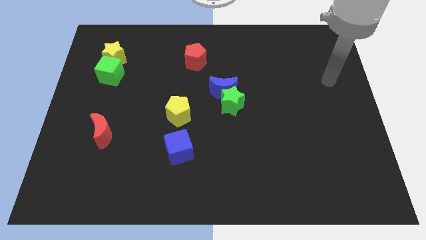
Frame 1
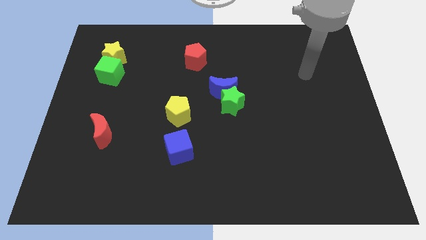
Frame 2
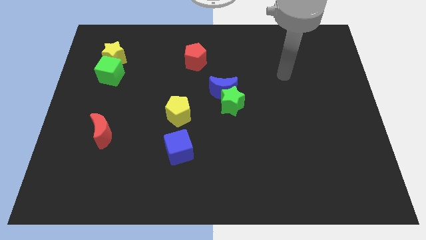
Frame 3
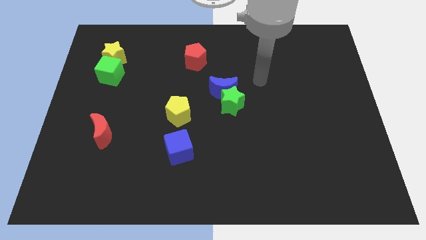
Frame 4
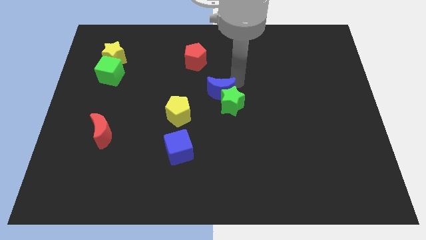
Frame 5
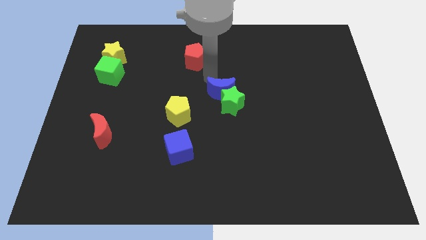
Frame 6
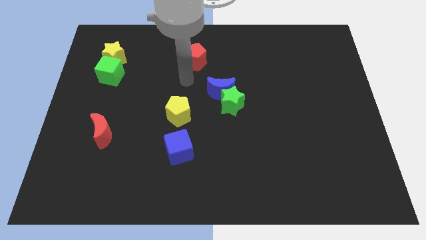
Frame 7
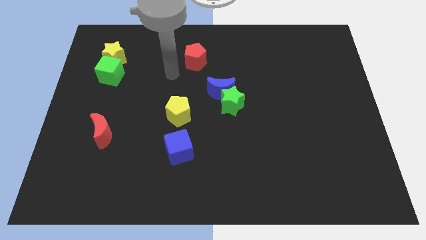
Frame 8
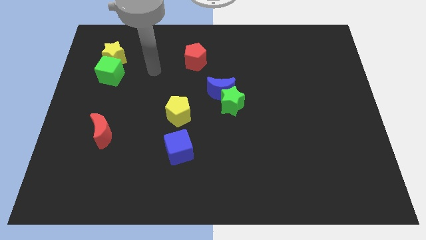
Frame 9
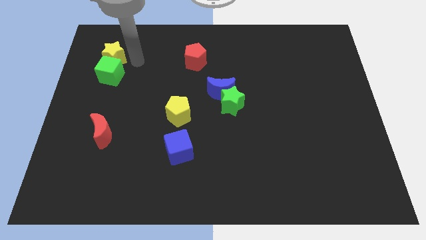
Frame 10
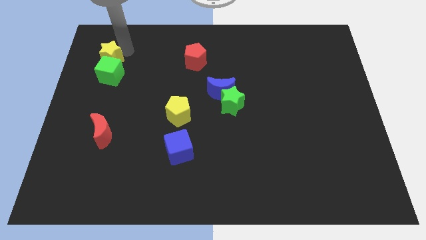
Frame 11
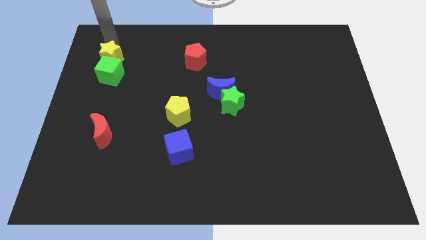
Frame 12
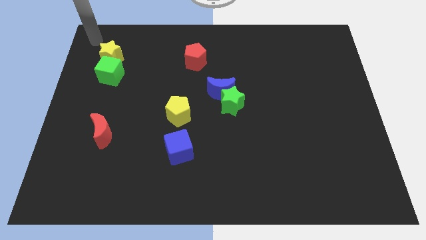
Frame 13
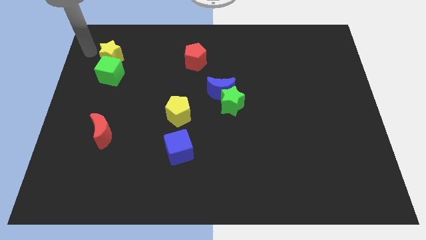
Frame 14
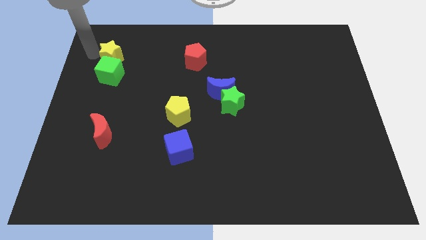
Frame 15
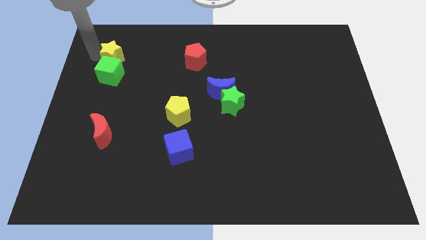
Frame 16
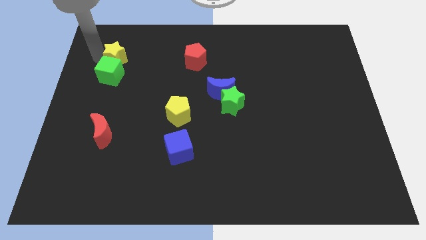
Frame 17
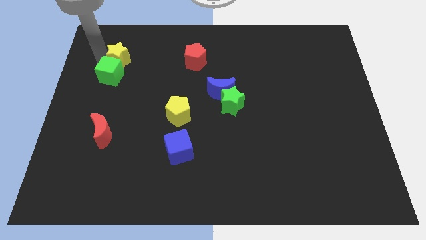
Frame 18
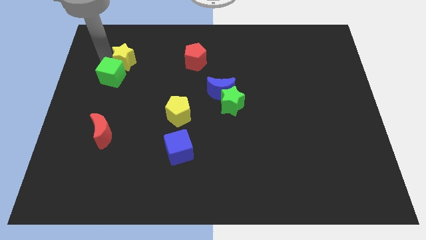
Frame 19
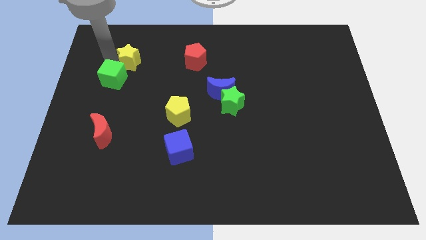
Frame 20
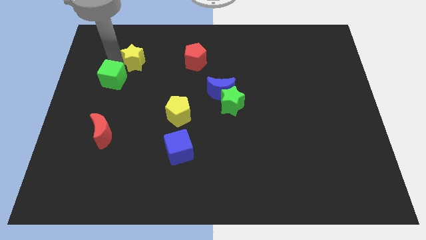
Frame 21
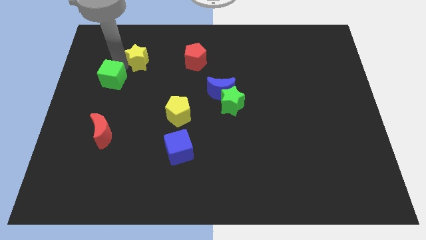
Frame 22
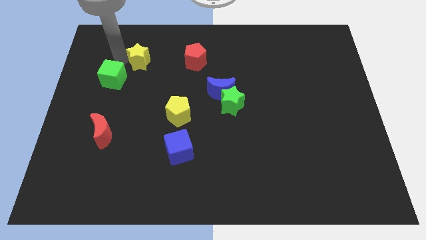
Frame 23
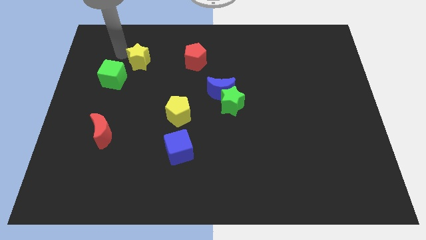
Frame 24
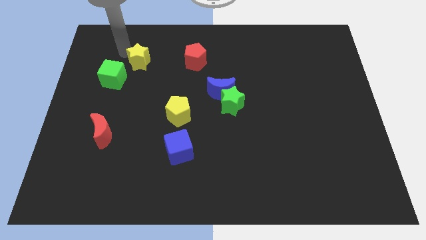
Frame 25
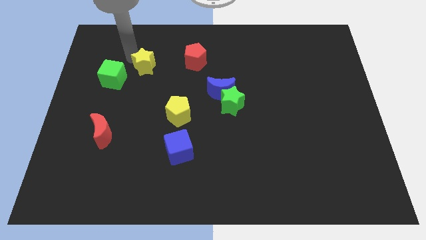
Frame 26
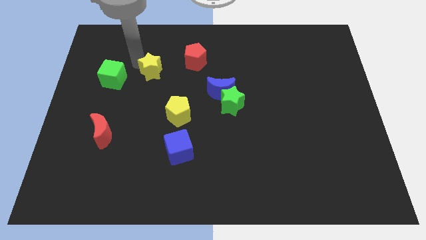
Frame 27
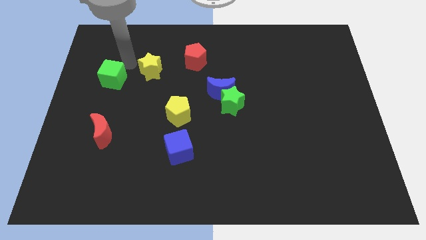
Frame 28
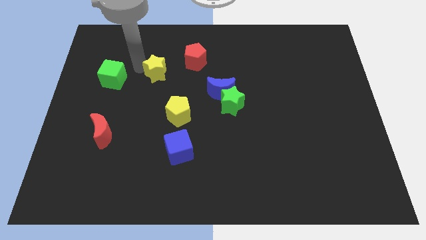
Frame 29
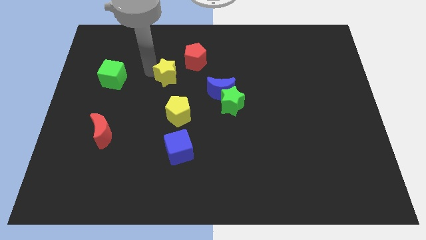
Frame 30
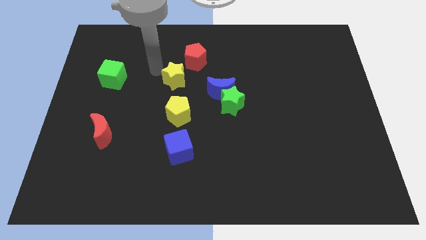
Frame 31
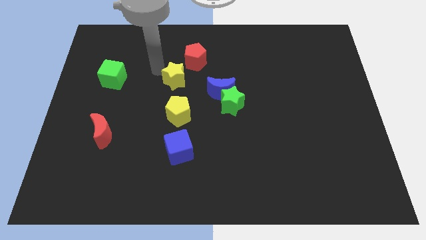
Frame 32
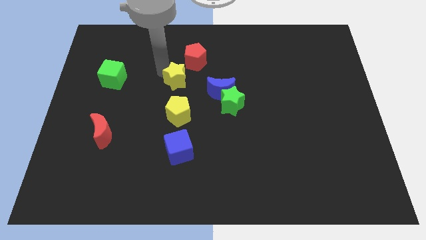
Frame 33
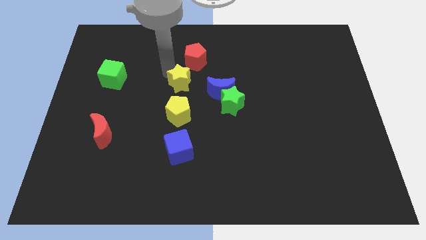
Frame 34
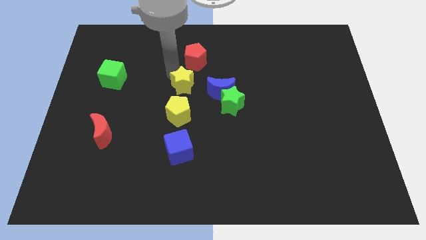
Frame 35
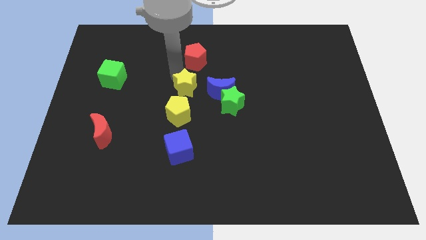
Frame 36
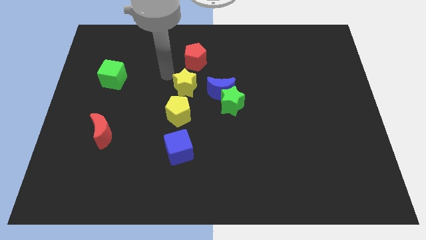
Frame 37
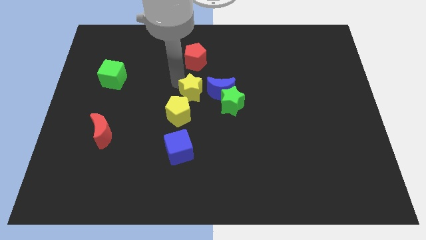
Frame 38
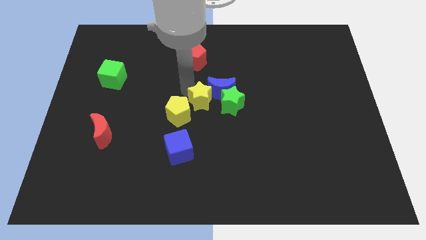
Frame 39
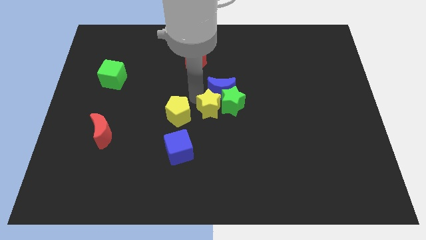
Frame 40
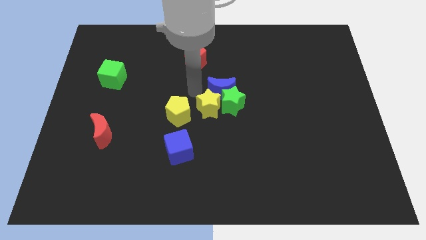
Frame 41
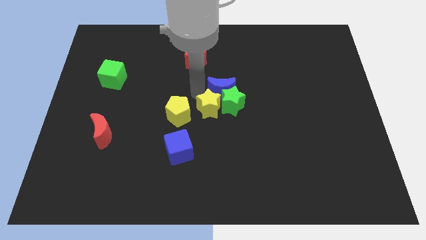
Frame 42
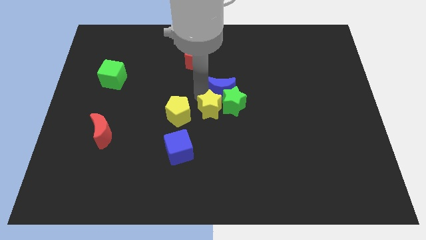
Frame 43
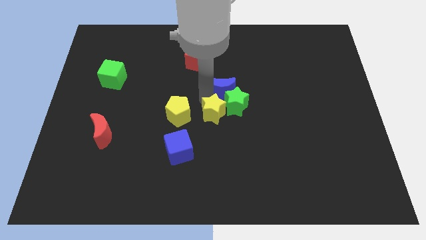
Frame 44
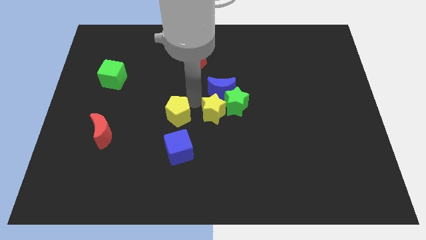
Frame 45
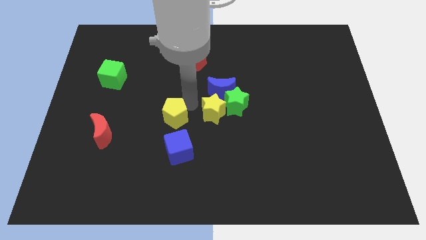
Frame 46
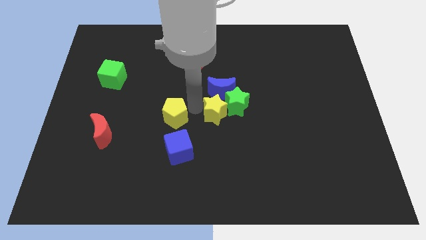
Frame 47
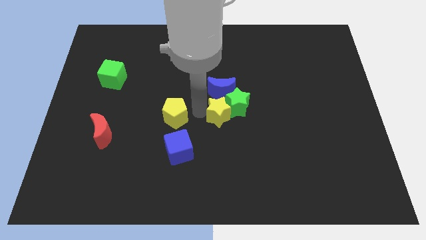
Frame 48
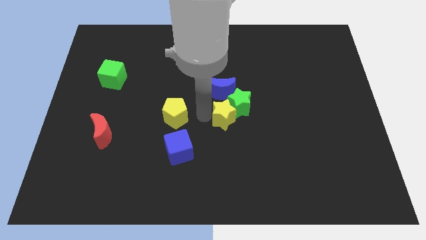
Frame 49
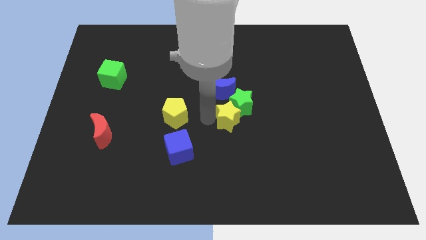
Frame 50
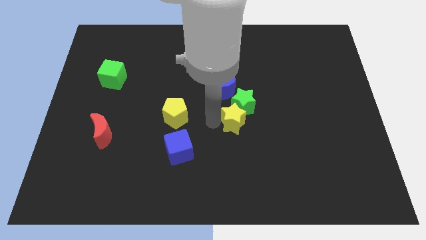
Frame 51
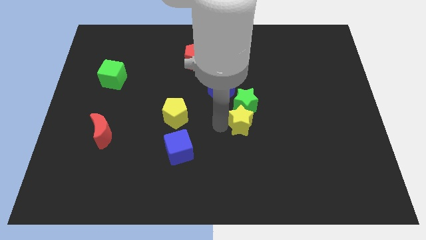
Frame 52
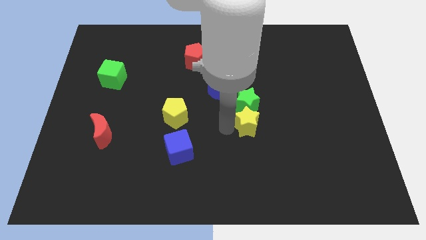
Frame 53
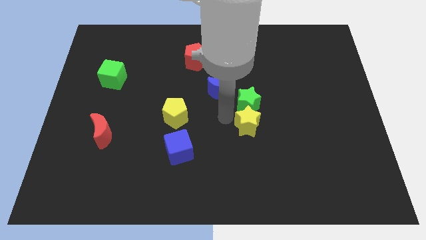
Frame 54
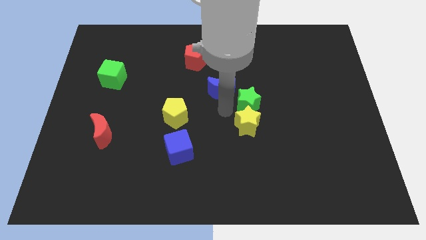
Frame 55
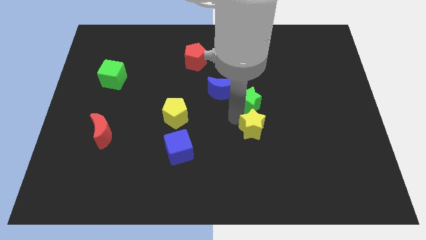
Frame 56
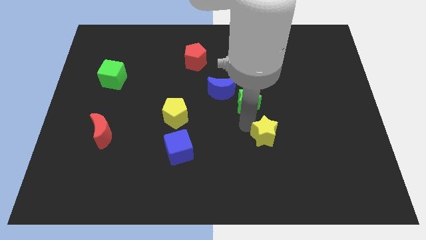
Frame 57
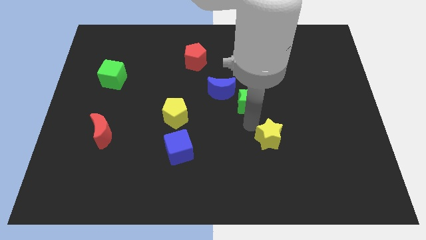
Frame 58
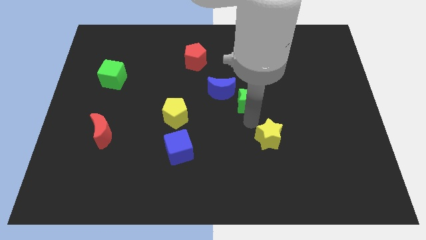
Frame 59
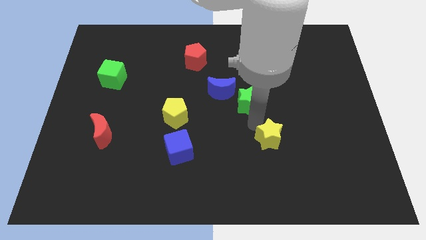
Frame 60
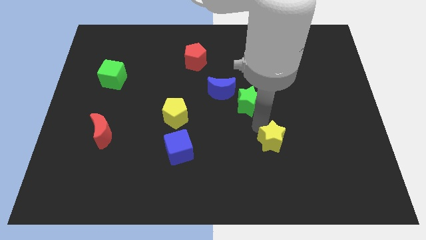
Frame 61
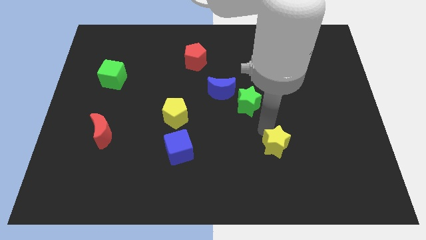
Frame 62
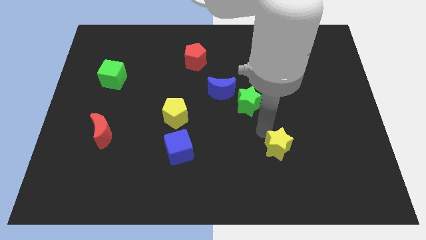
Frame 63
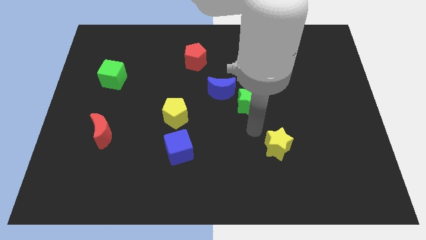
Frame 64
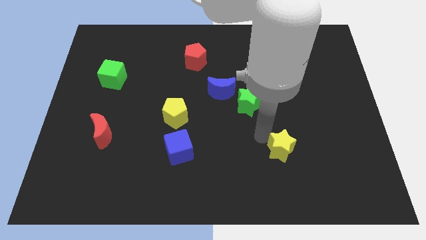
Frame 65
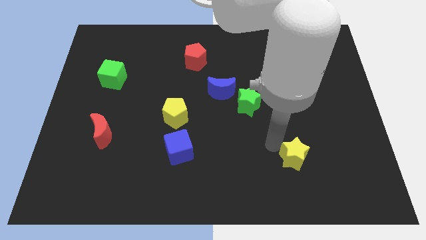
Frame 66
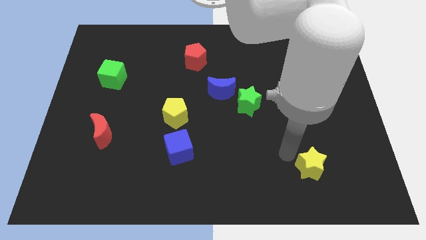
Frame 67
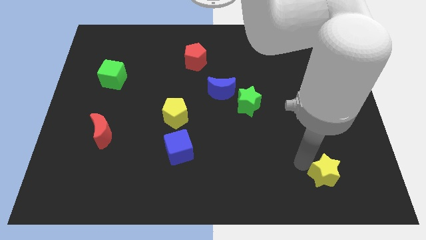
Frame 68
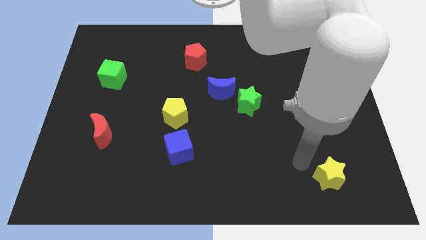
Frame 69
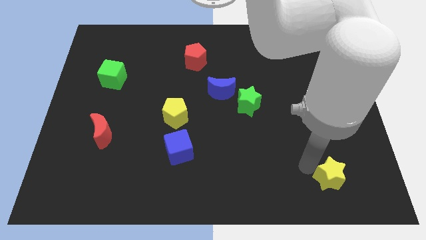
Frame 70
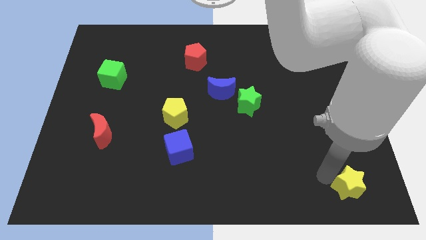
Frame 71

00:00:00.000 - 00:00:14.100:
put the yellow star to the lower right corner
